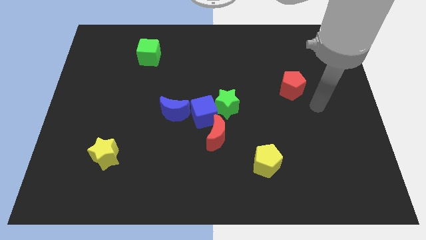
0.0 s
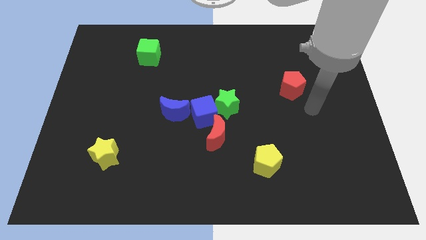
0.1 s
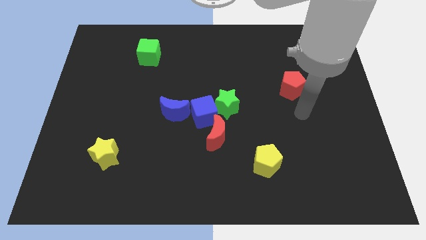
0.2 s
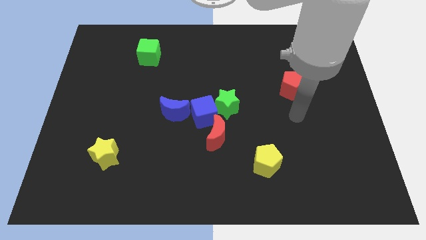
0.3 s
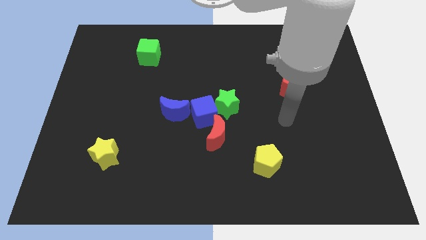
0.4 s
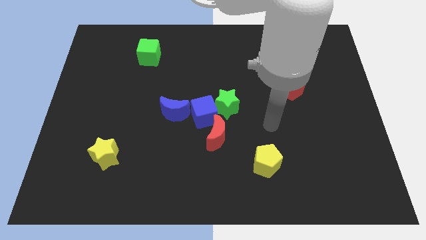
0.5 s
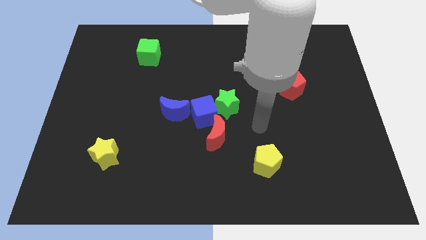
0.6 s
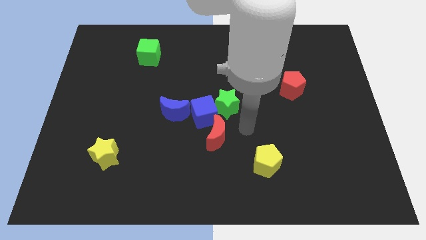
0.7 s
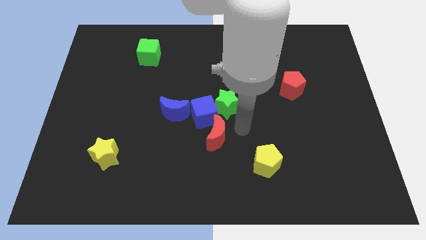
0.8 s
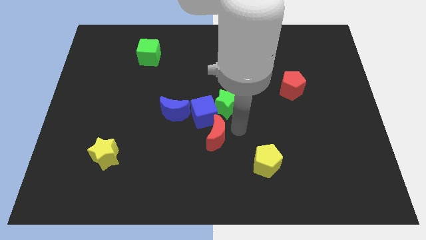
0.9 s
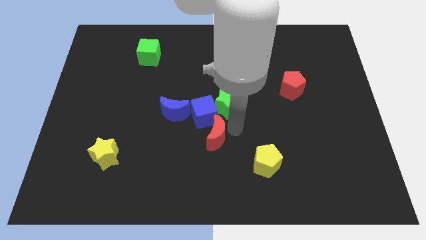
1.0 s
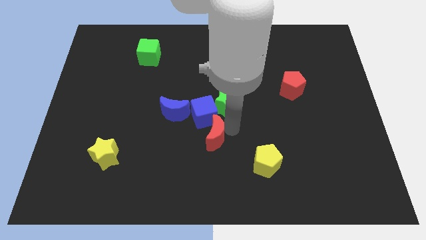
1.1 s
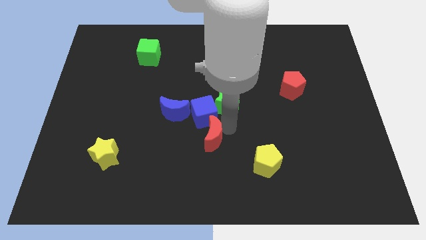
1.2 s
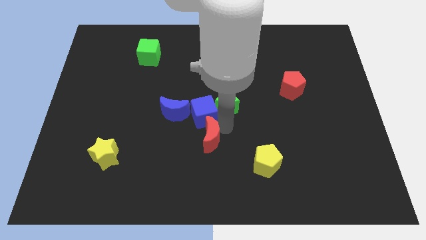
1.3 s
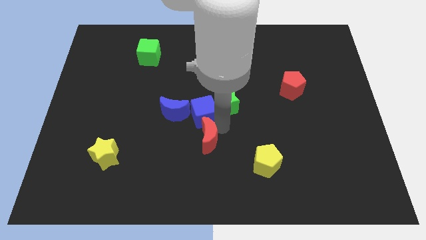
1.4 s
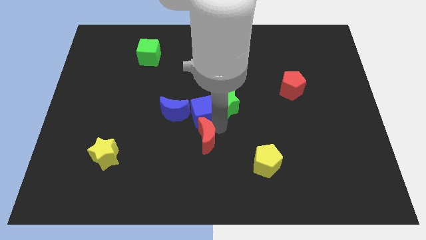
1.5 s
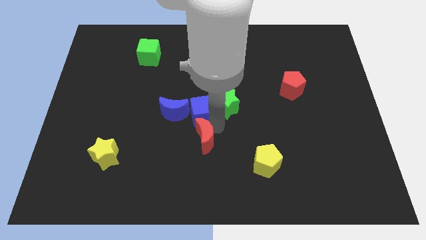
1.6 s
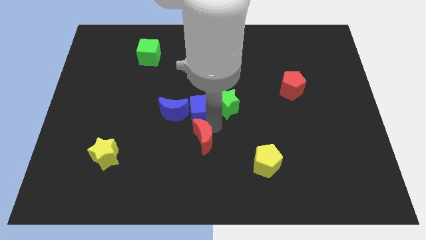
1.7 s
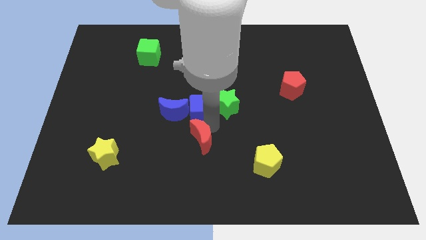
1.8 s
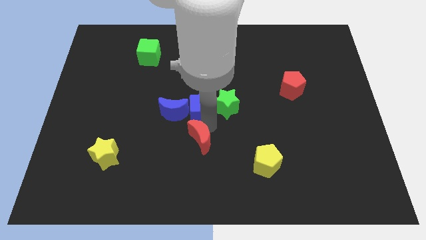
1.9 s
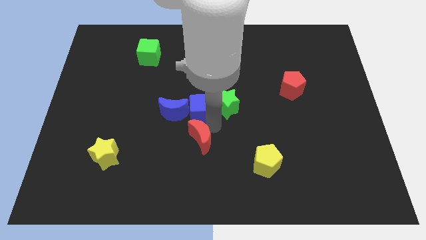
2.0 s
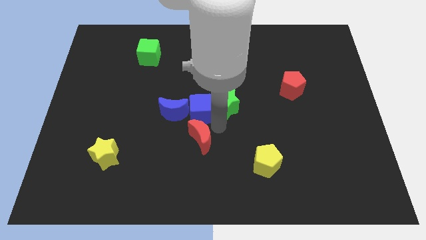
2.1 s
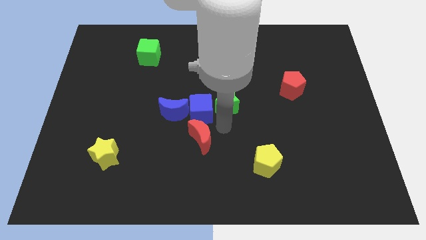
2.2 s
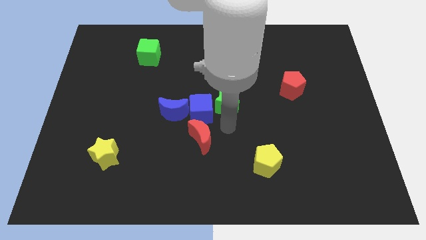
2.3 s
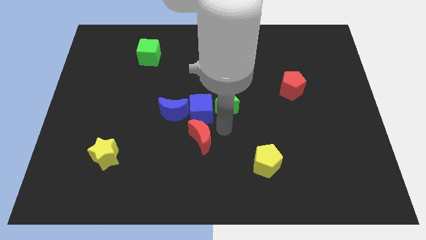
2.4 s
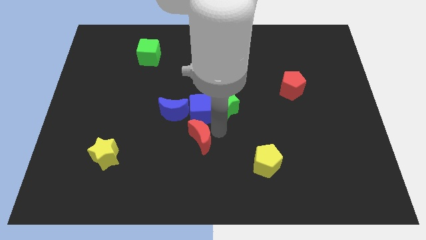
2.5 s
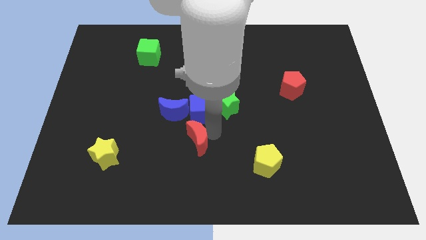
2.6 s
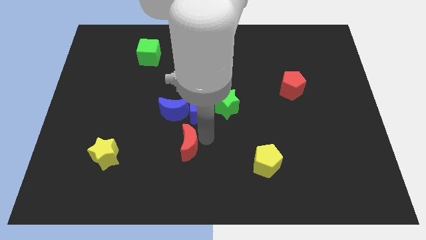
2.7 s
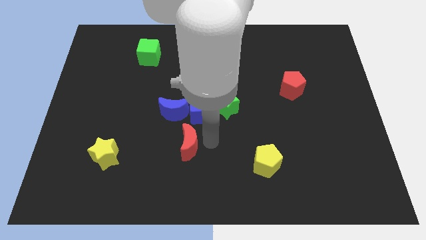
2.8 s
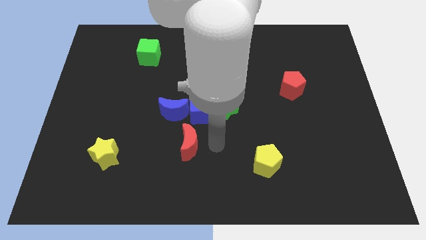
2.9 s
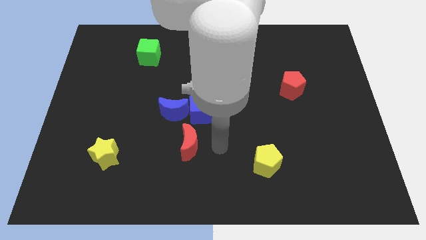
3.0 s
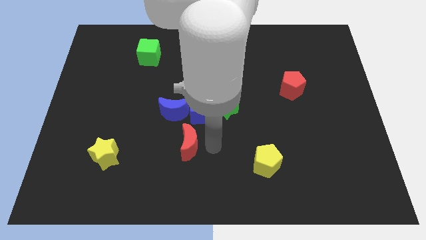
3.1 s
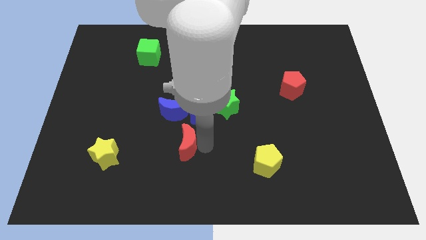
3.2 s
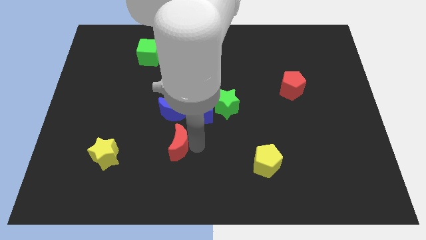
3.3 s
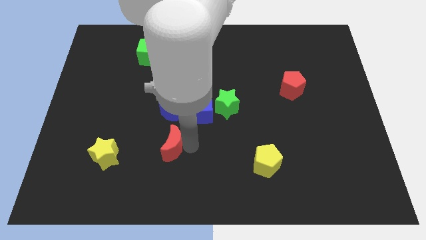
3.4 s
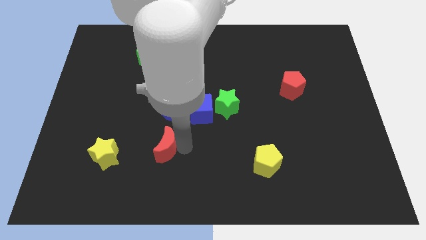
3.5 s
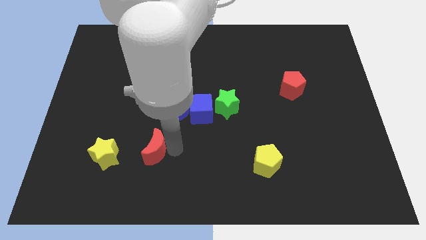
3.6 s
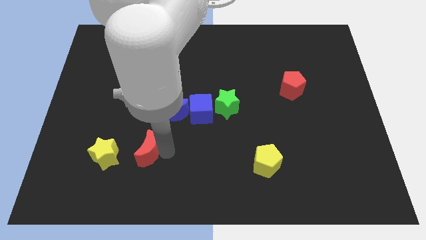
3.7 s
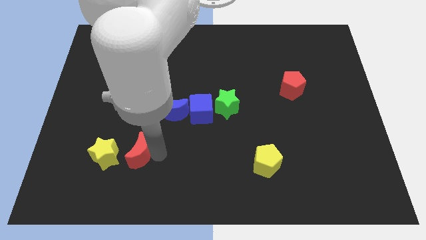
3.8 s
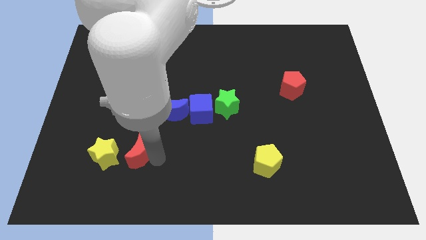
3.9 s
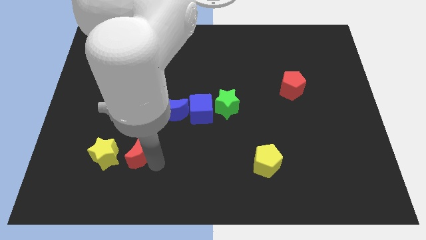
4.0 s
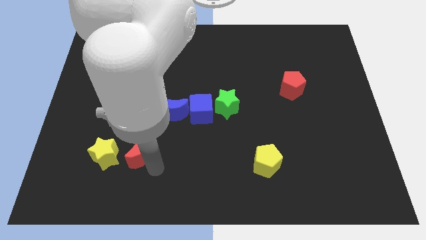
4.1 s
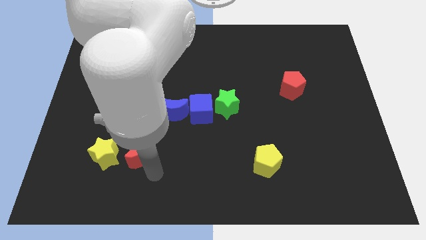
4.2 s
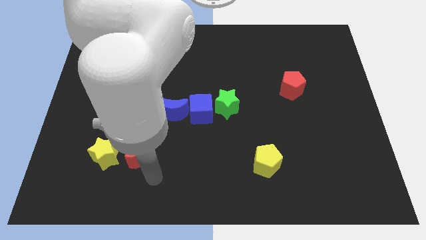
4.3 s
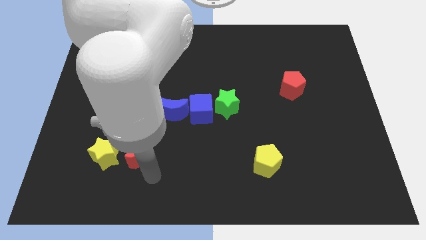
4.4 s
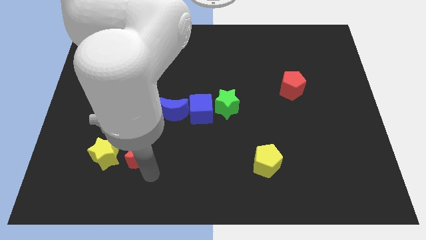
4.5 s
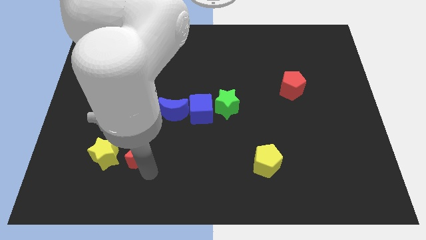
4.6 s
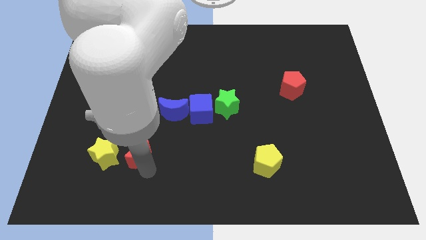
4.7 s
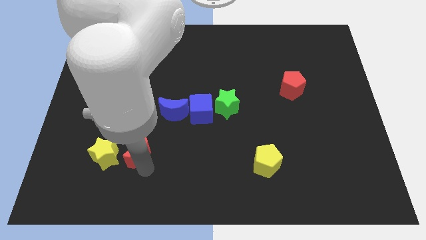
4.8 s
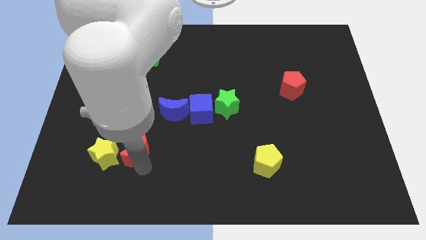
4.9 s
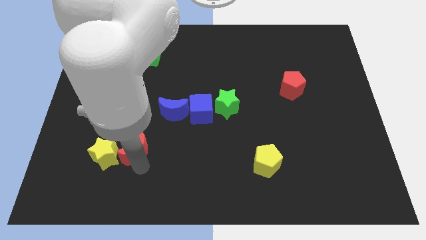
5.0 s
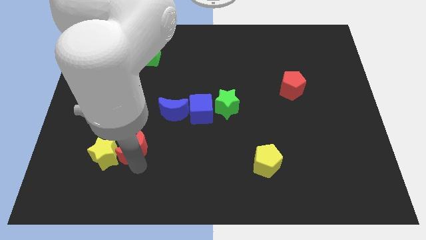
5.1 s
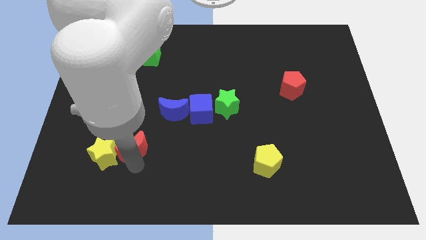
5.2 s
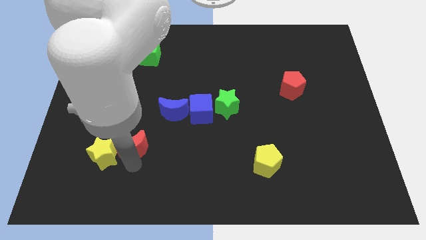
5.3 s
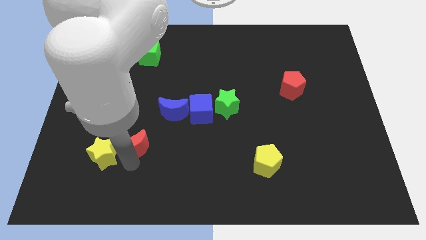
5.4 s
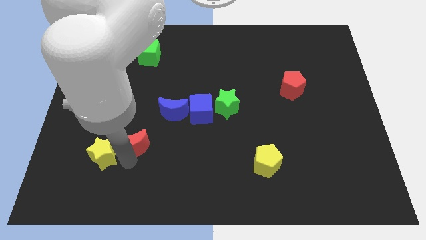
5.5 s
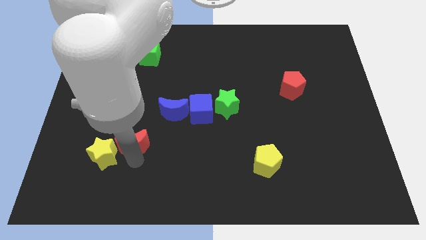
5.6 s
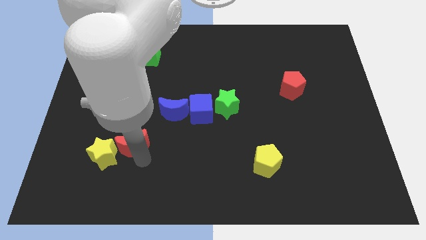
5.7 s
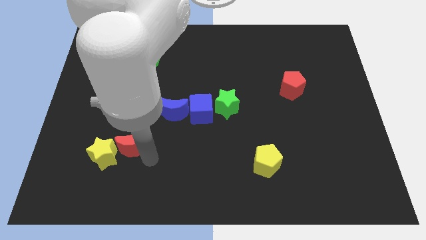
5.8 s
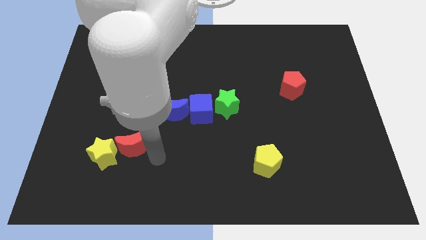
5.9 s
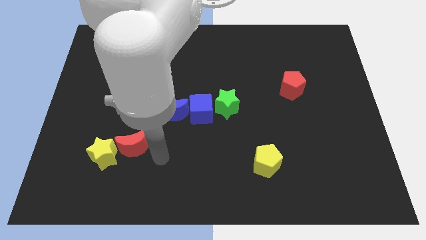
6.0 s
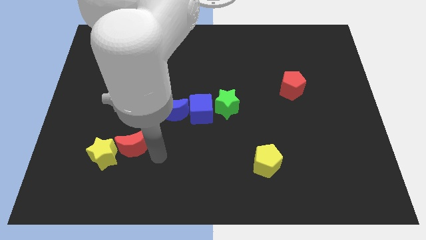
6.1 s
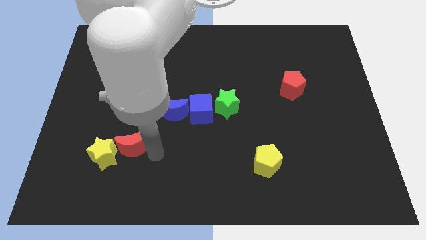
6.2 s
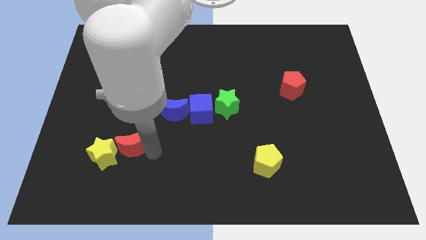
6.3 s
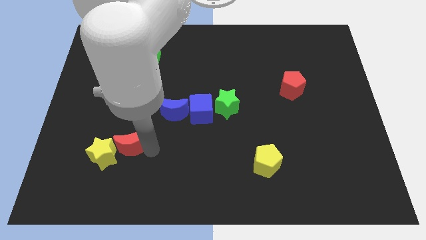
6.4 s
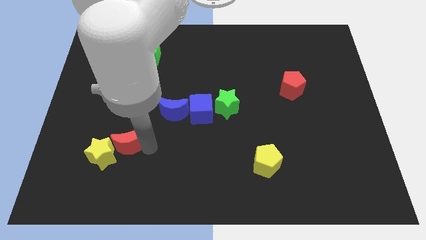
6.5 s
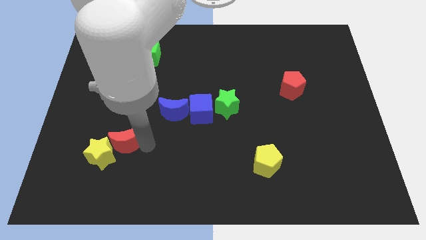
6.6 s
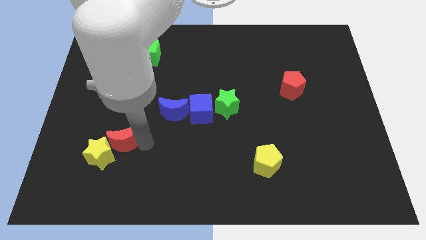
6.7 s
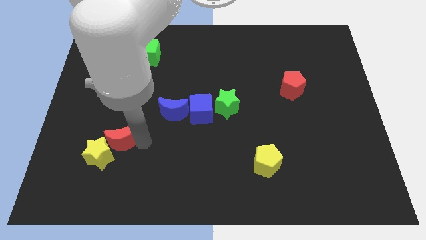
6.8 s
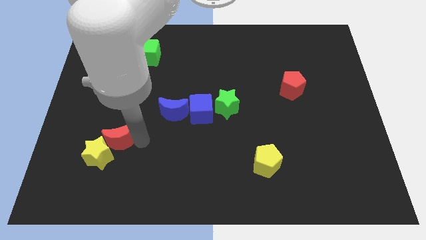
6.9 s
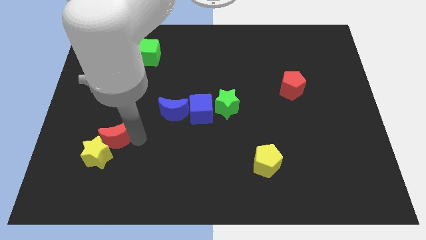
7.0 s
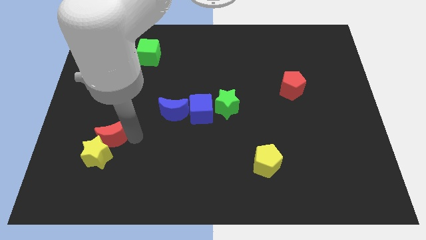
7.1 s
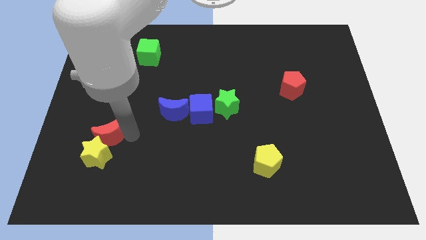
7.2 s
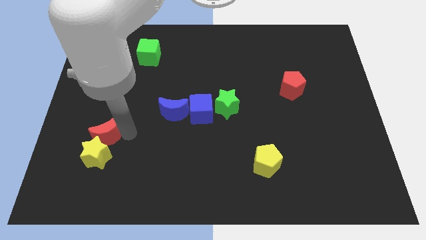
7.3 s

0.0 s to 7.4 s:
push the red moon to the top left side of the yellow star
